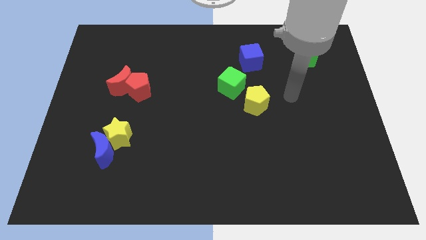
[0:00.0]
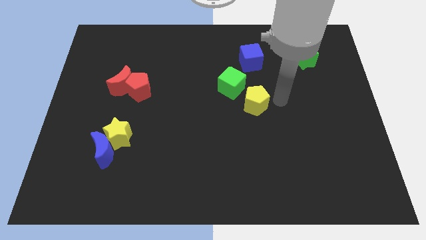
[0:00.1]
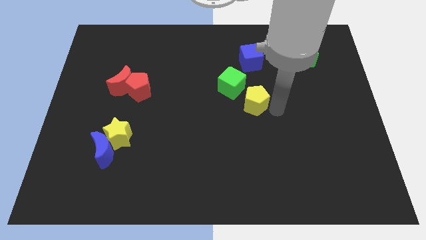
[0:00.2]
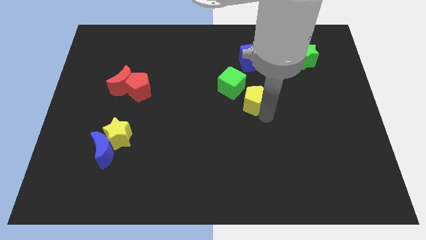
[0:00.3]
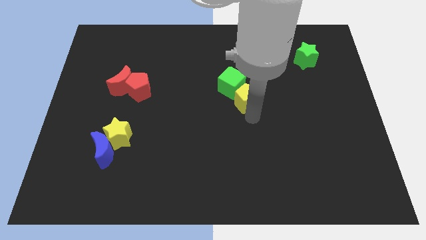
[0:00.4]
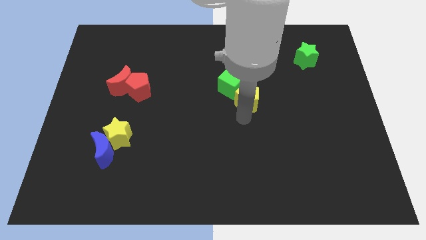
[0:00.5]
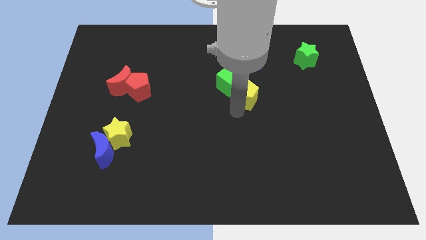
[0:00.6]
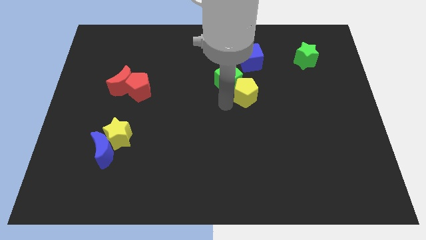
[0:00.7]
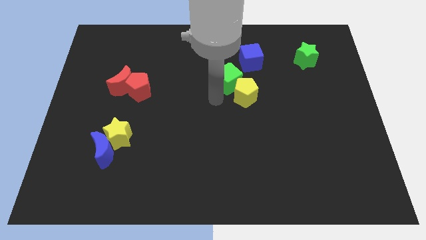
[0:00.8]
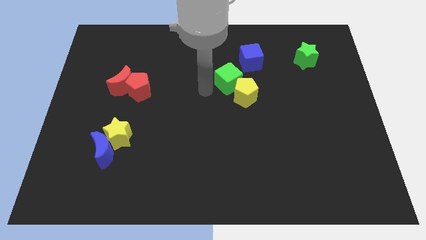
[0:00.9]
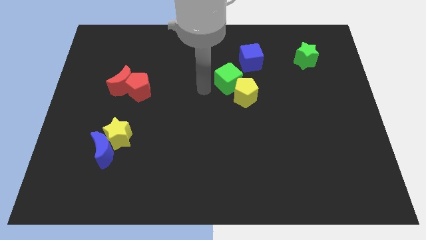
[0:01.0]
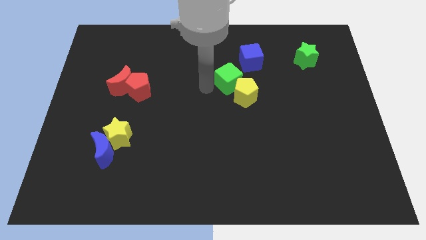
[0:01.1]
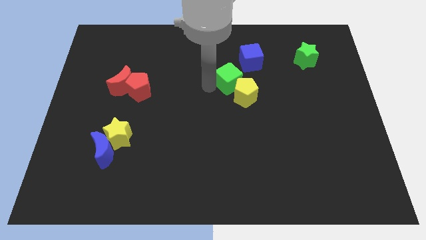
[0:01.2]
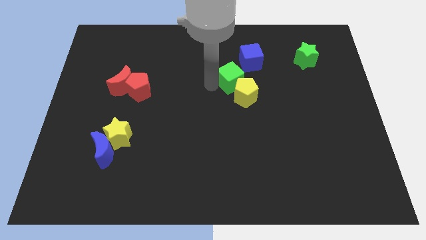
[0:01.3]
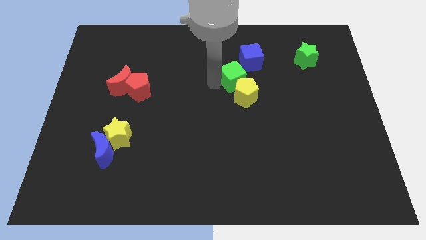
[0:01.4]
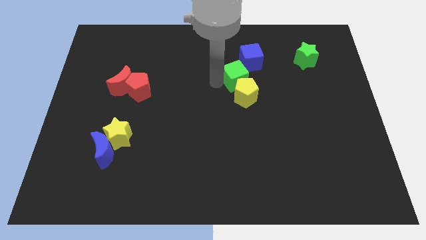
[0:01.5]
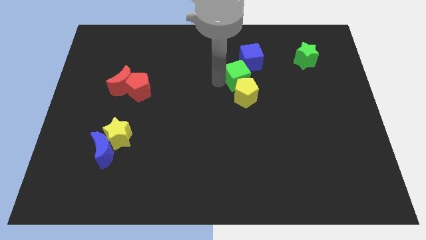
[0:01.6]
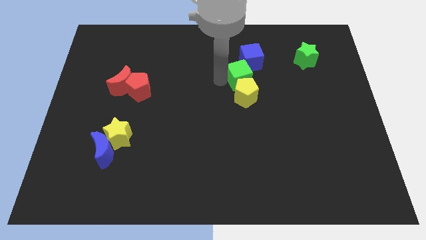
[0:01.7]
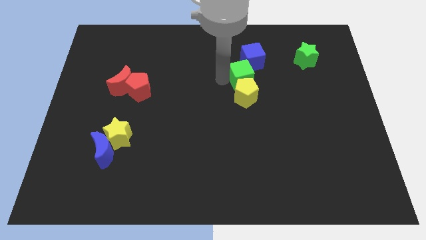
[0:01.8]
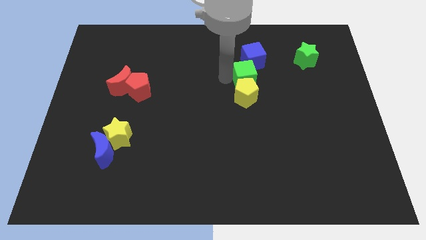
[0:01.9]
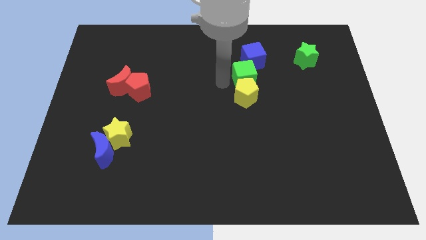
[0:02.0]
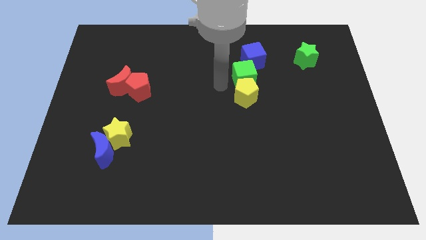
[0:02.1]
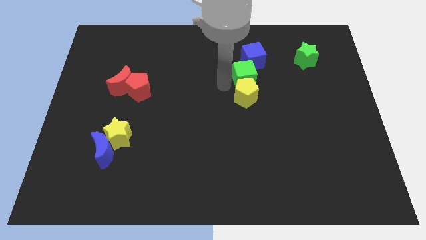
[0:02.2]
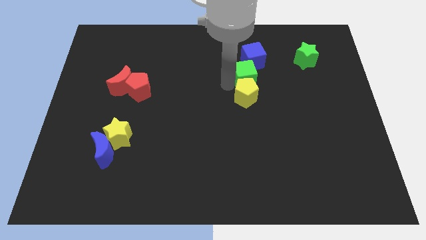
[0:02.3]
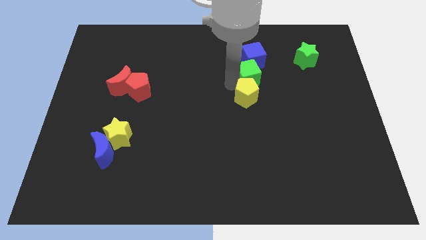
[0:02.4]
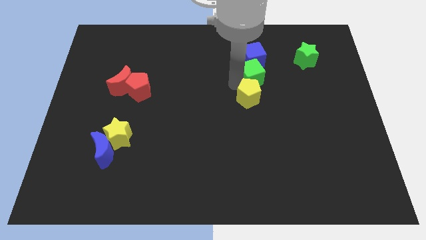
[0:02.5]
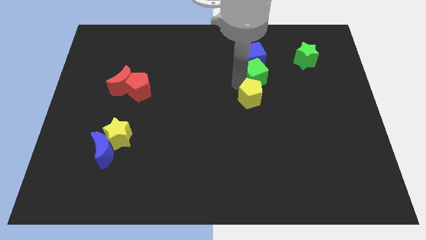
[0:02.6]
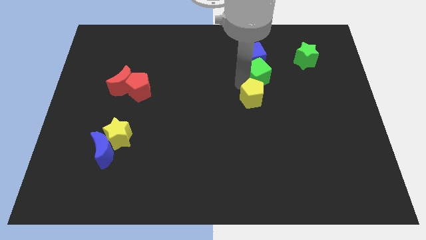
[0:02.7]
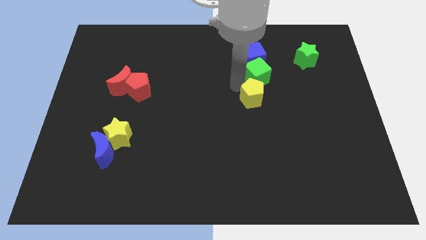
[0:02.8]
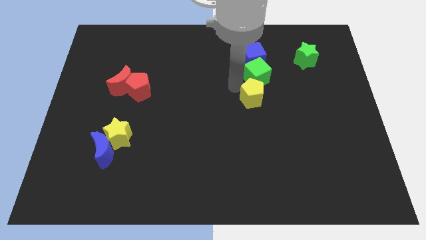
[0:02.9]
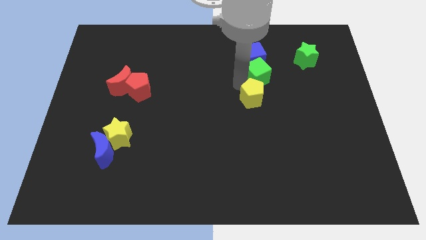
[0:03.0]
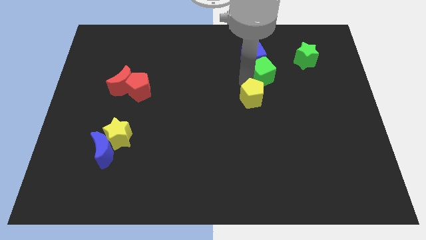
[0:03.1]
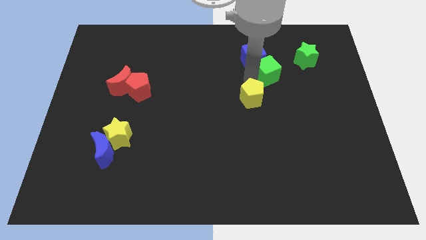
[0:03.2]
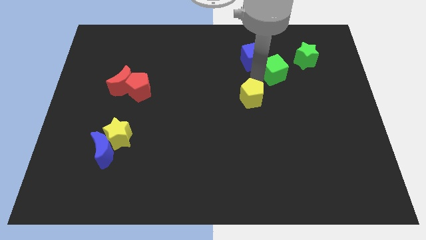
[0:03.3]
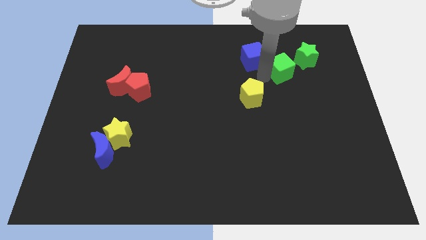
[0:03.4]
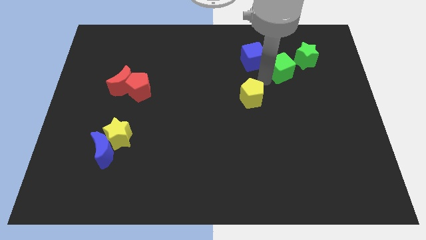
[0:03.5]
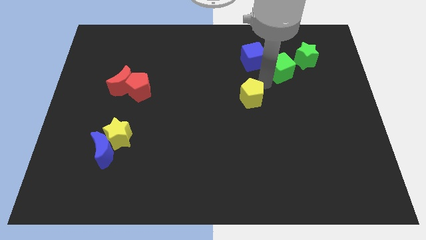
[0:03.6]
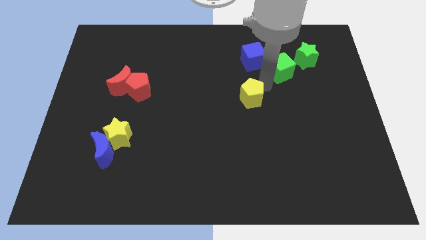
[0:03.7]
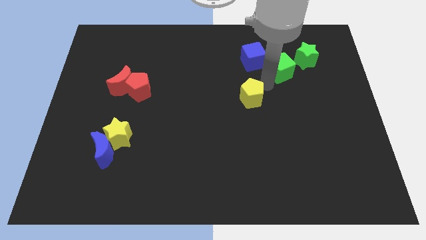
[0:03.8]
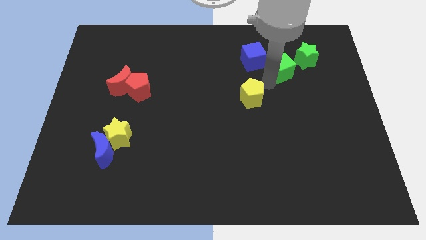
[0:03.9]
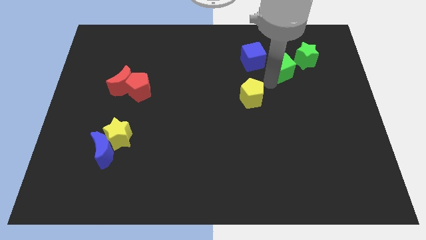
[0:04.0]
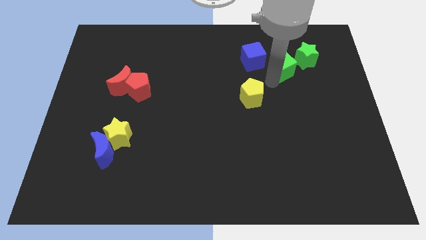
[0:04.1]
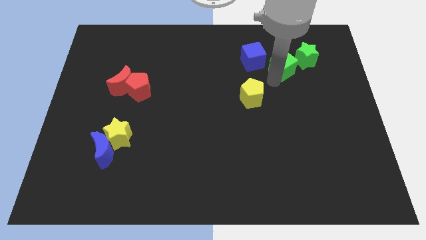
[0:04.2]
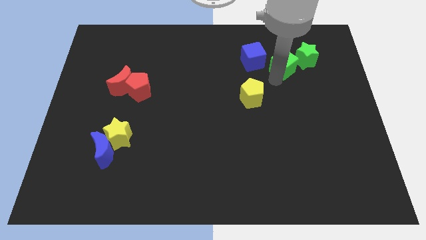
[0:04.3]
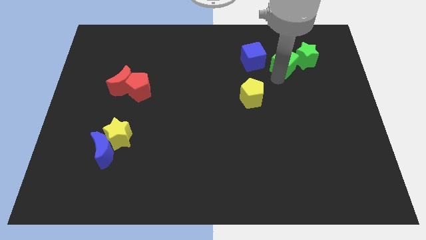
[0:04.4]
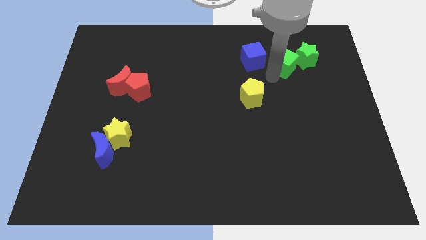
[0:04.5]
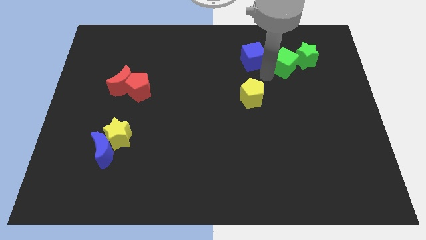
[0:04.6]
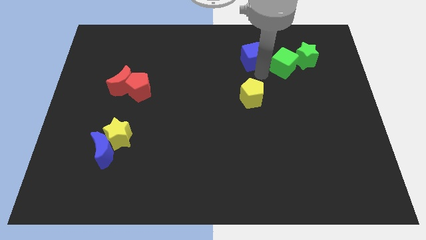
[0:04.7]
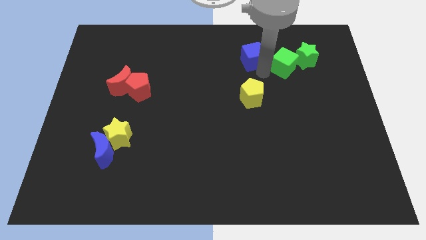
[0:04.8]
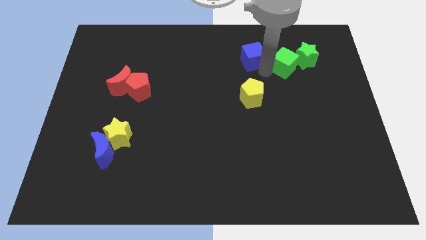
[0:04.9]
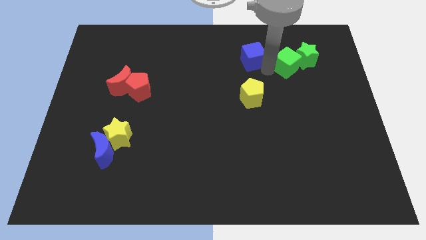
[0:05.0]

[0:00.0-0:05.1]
put the green cube to the green star

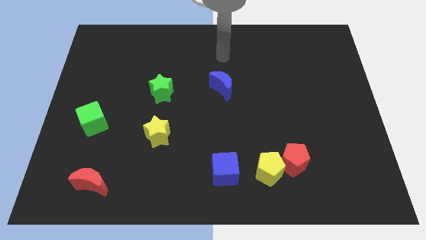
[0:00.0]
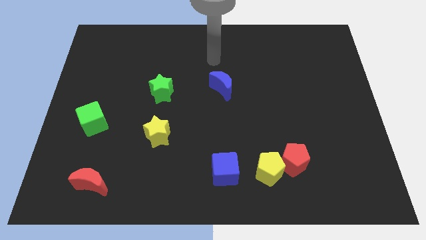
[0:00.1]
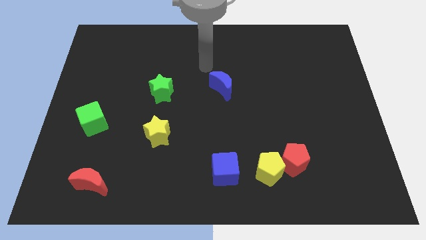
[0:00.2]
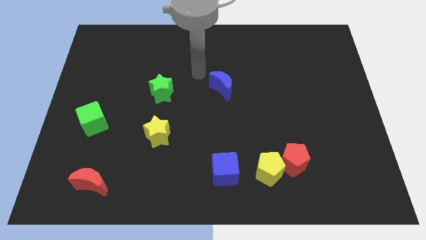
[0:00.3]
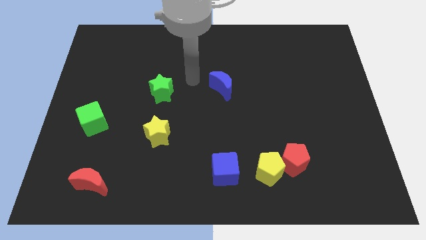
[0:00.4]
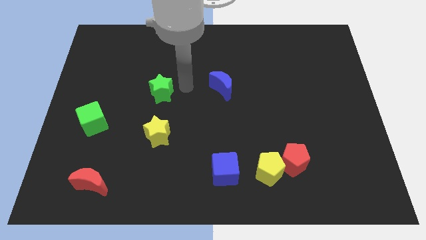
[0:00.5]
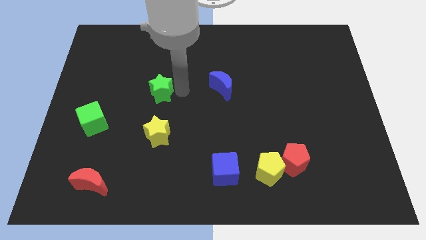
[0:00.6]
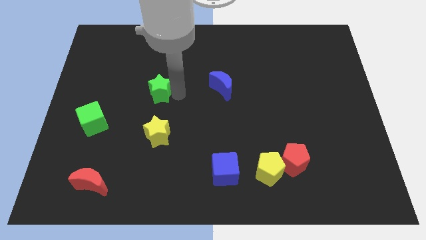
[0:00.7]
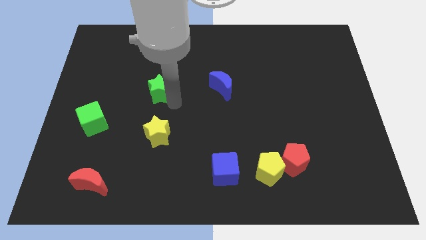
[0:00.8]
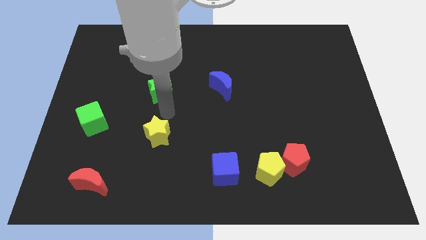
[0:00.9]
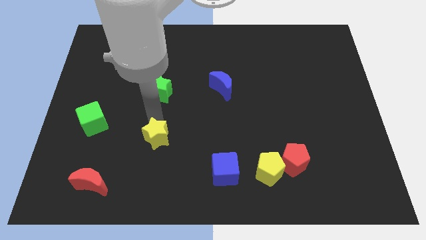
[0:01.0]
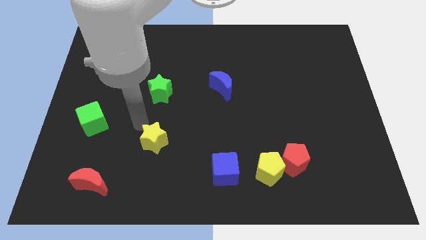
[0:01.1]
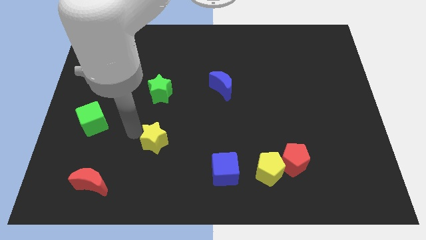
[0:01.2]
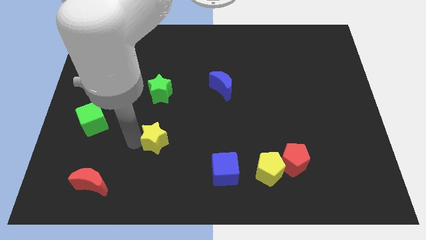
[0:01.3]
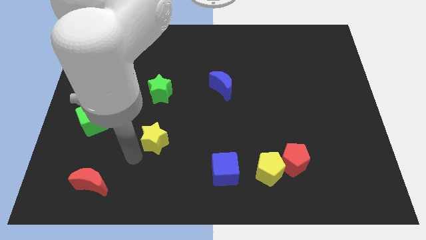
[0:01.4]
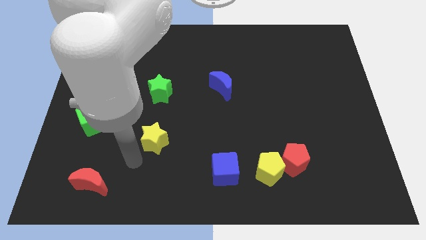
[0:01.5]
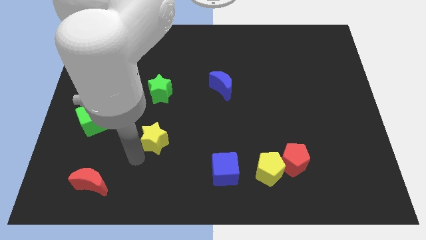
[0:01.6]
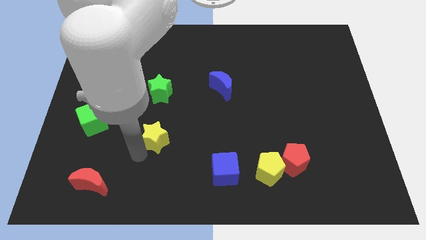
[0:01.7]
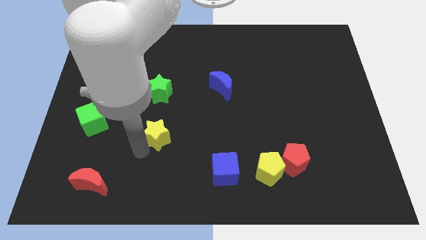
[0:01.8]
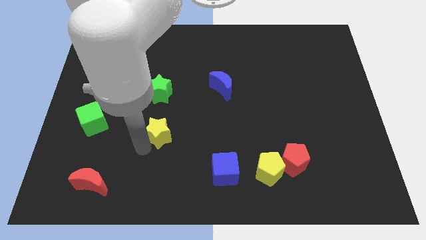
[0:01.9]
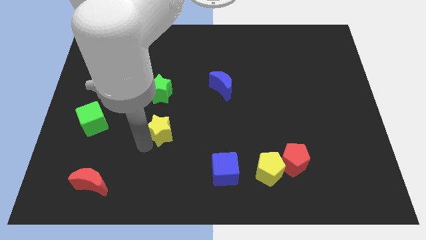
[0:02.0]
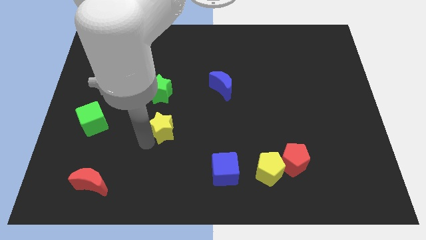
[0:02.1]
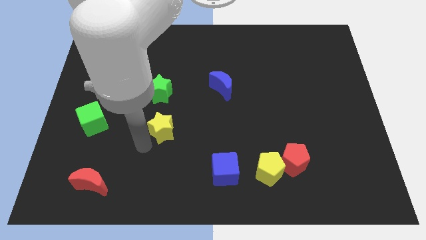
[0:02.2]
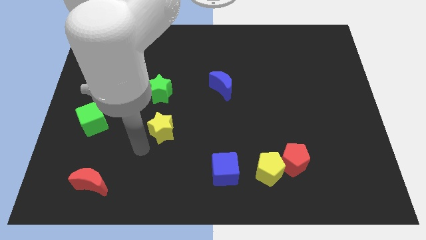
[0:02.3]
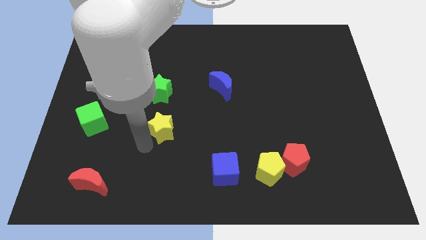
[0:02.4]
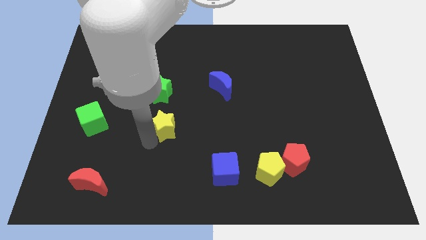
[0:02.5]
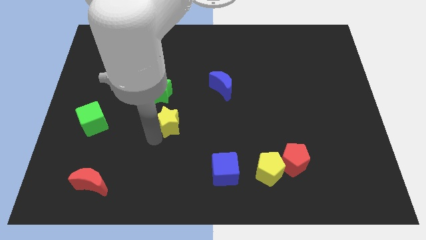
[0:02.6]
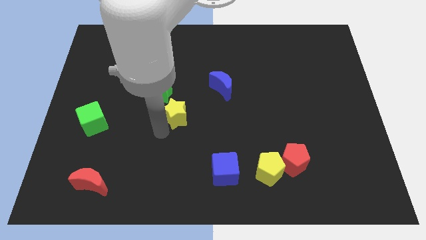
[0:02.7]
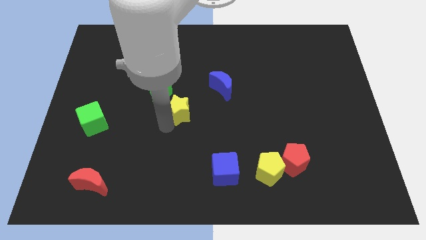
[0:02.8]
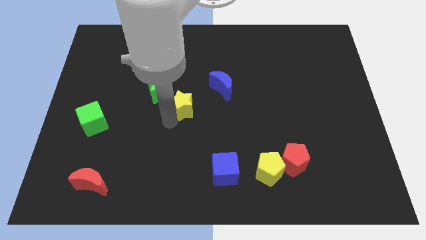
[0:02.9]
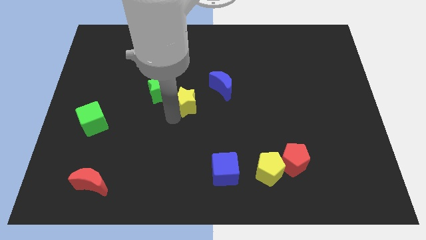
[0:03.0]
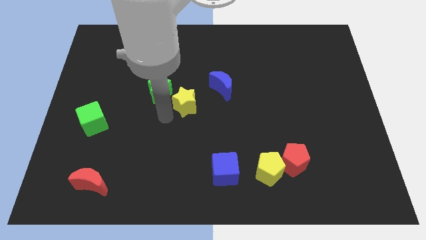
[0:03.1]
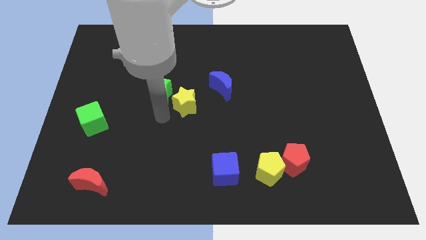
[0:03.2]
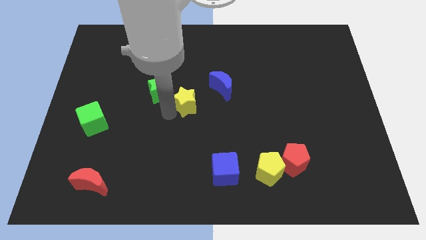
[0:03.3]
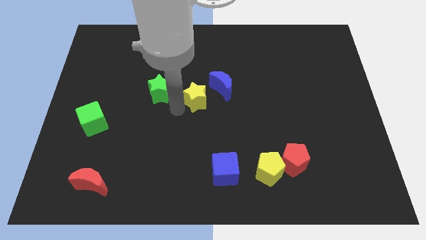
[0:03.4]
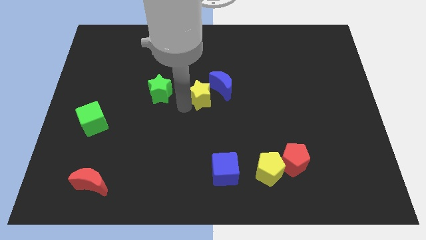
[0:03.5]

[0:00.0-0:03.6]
slide the yellow star towards the blue moon
